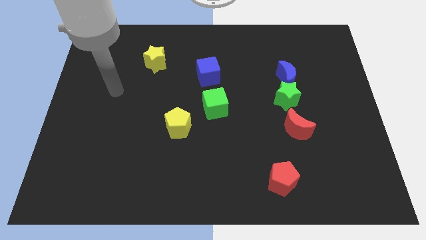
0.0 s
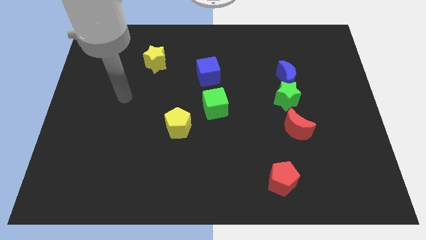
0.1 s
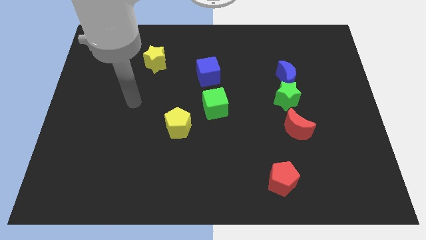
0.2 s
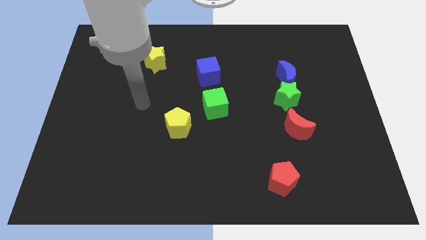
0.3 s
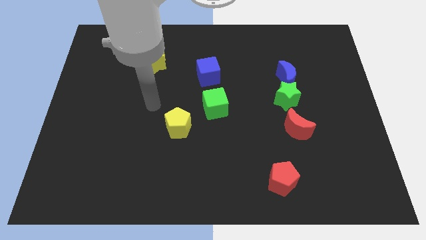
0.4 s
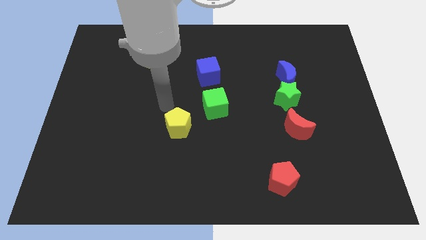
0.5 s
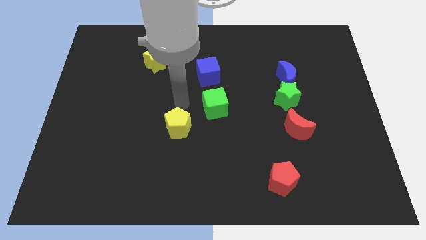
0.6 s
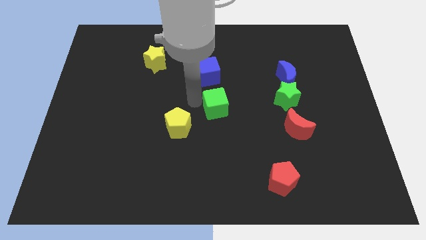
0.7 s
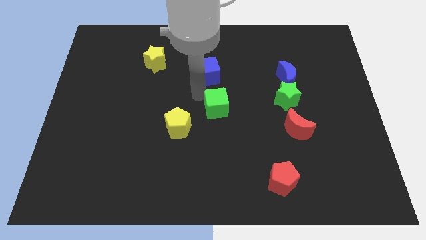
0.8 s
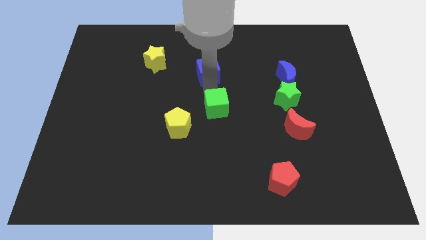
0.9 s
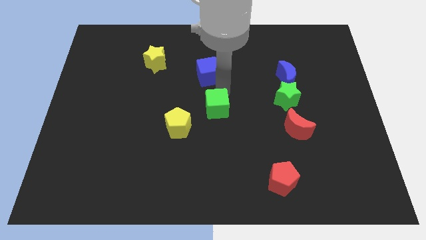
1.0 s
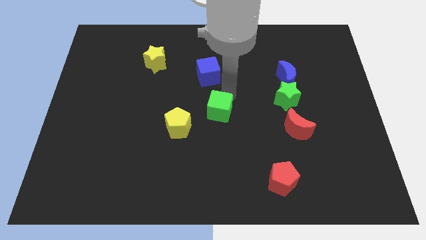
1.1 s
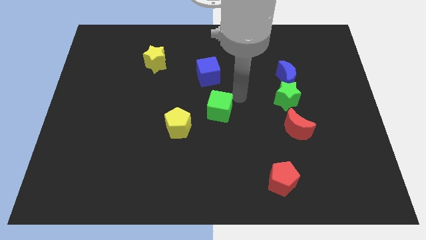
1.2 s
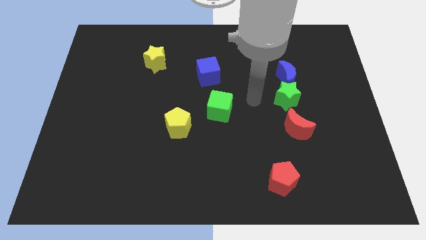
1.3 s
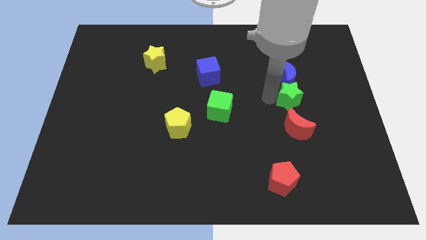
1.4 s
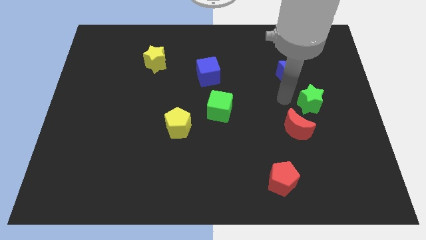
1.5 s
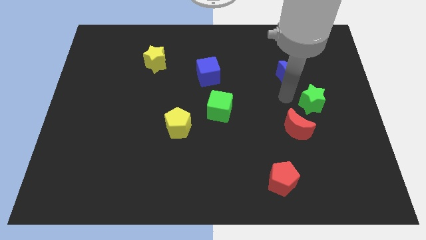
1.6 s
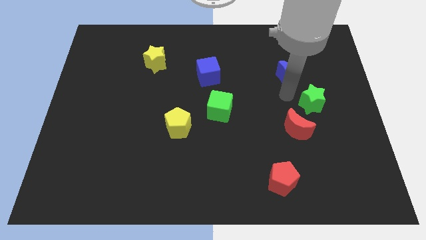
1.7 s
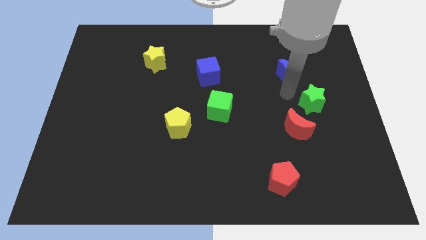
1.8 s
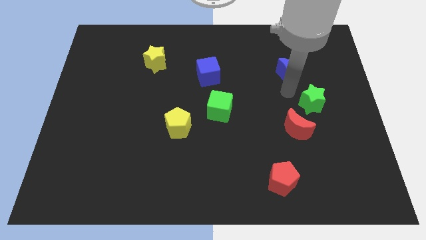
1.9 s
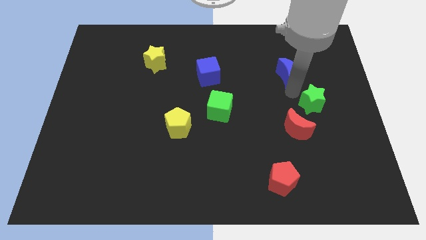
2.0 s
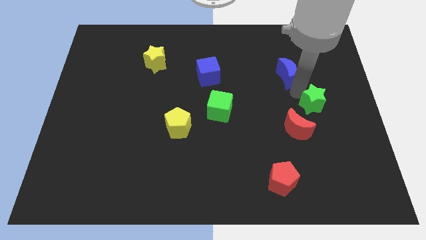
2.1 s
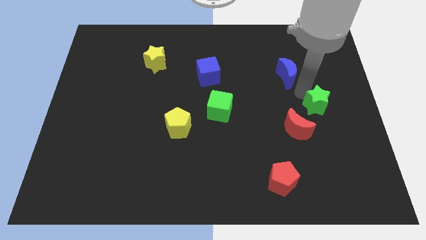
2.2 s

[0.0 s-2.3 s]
pull the blue moon apart from the green star

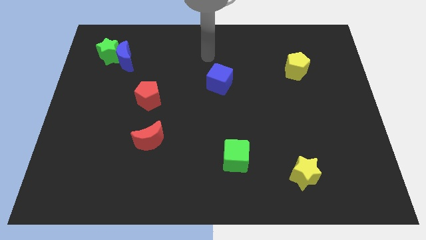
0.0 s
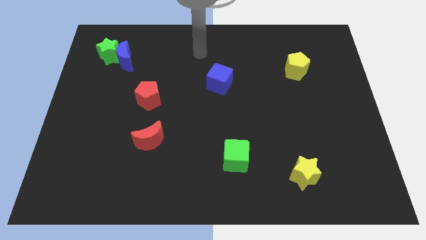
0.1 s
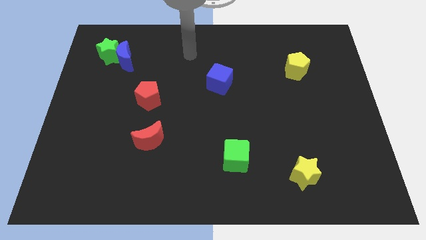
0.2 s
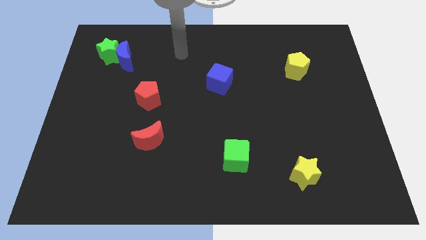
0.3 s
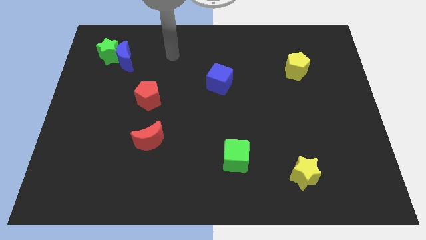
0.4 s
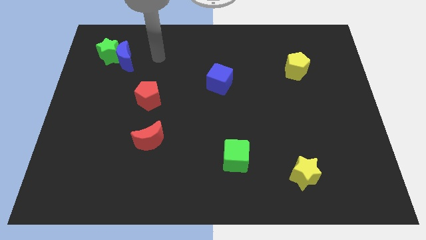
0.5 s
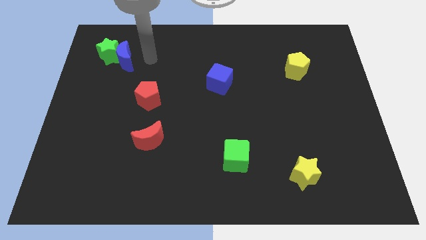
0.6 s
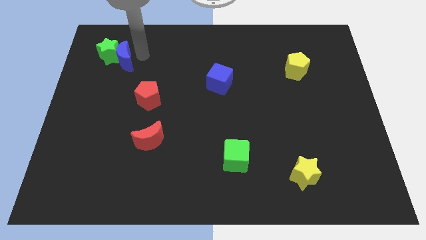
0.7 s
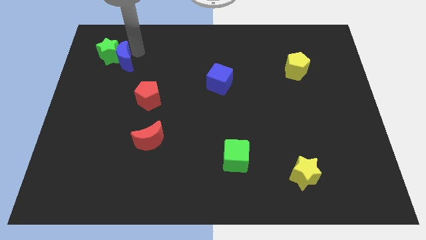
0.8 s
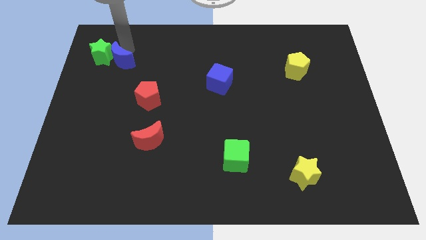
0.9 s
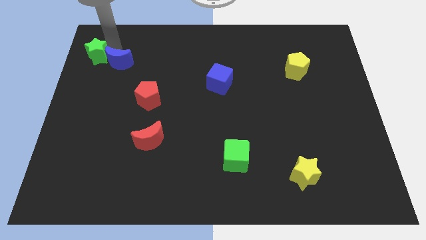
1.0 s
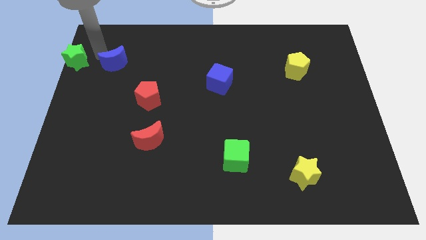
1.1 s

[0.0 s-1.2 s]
separate the blue moon from the green star

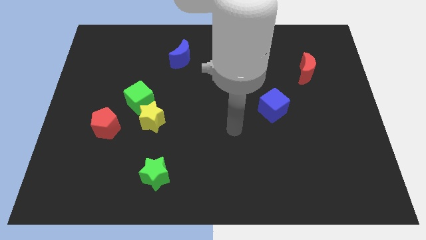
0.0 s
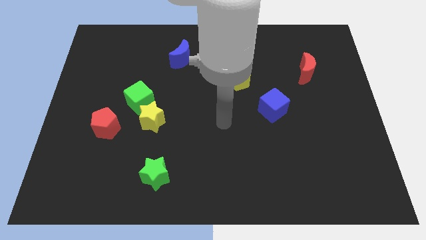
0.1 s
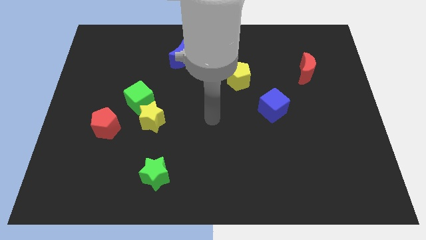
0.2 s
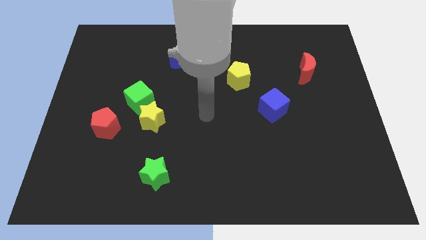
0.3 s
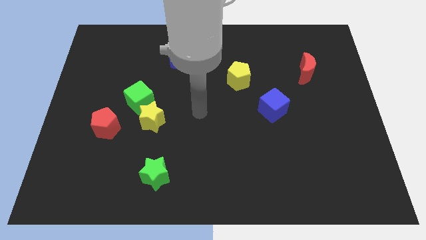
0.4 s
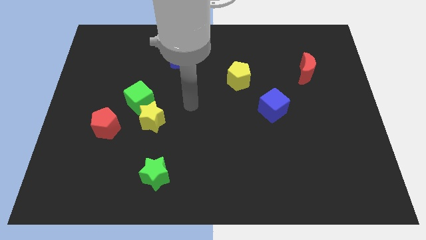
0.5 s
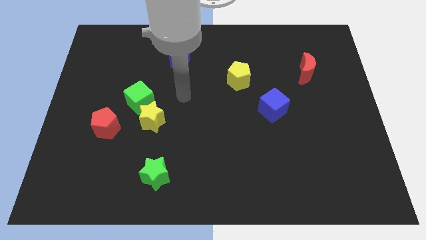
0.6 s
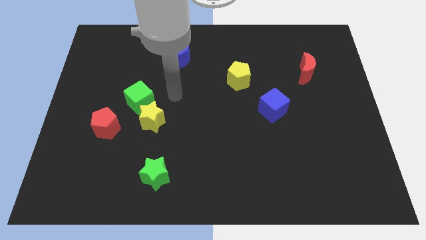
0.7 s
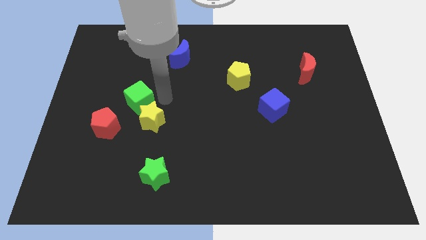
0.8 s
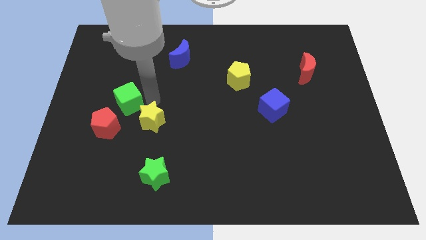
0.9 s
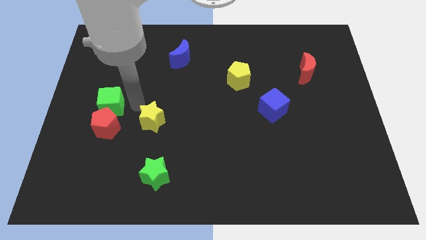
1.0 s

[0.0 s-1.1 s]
separate the yellow star from the green cube

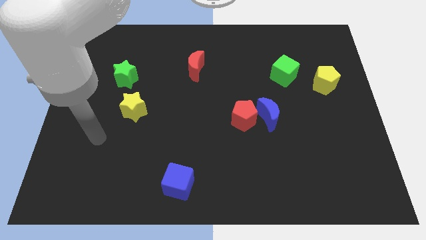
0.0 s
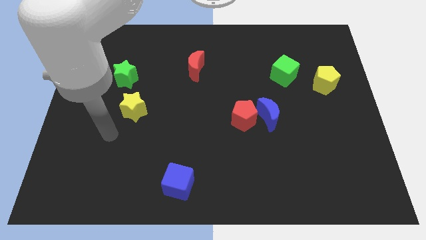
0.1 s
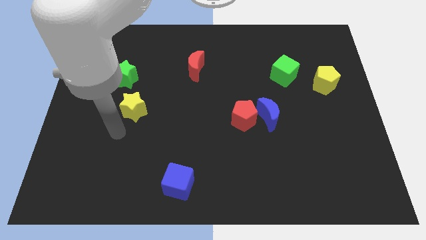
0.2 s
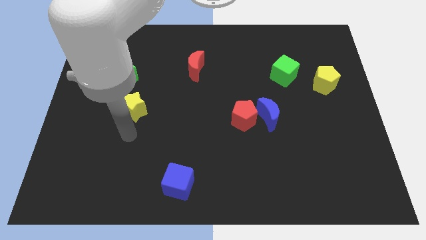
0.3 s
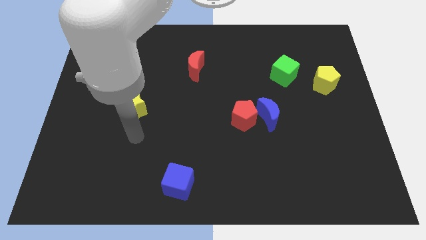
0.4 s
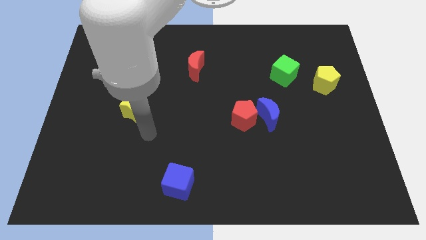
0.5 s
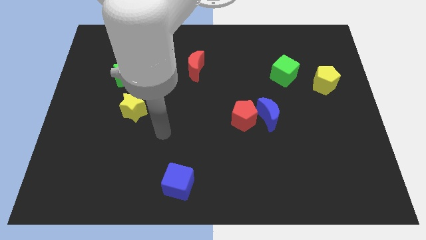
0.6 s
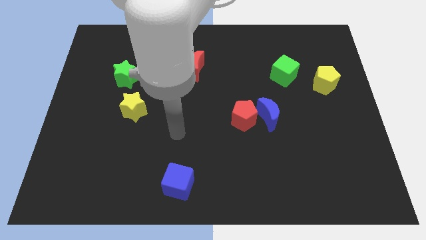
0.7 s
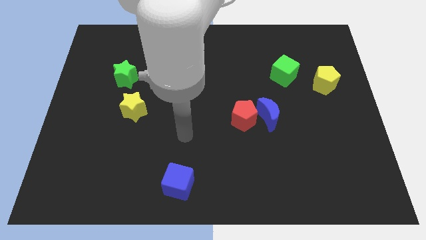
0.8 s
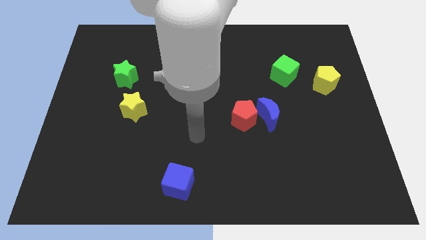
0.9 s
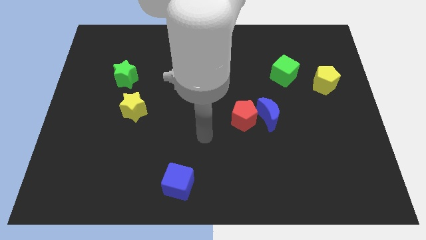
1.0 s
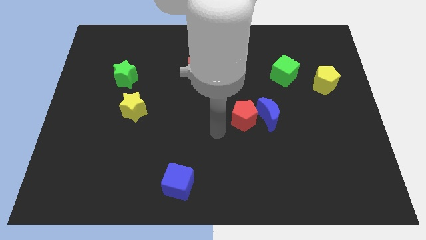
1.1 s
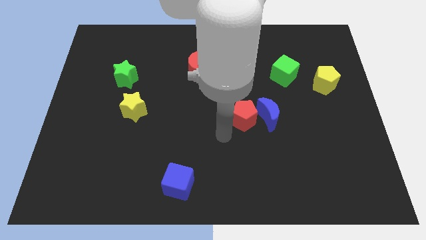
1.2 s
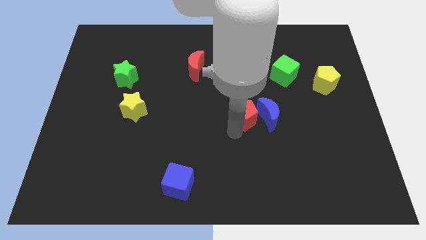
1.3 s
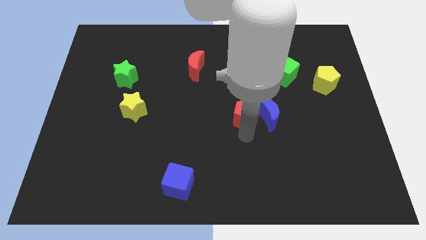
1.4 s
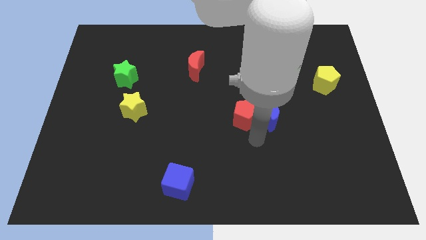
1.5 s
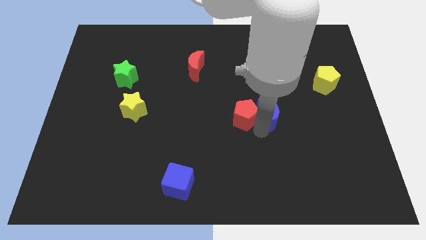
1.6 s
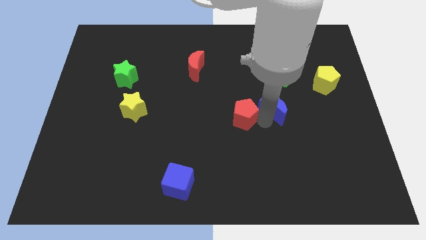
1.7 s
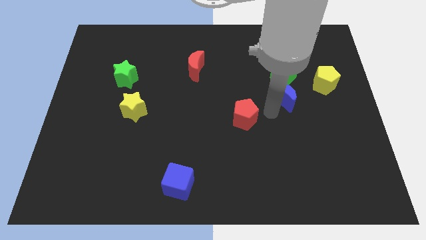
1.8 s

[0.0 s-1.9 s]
pull the red pentagon apart from the blue moon

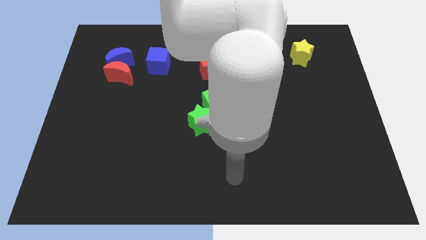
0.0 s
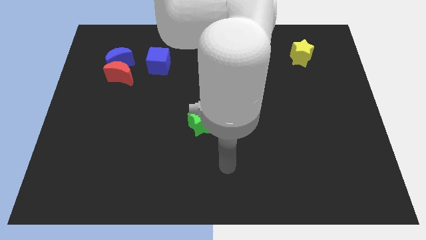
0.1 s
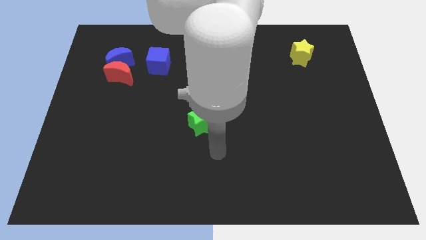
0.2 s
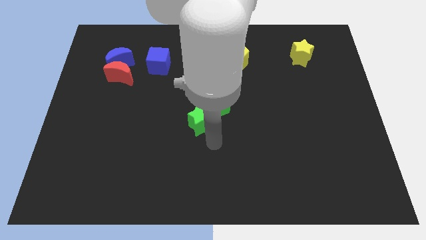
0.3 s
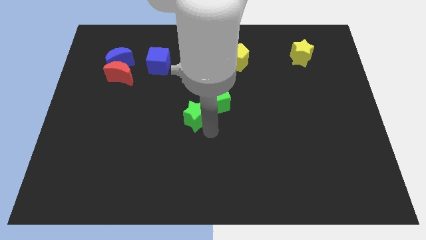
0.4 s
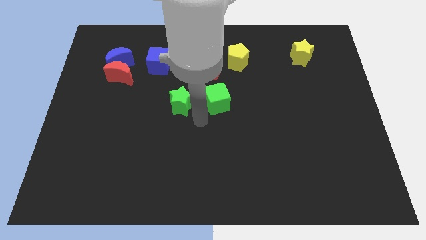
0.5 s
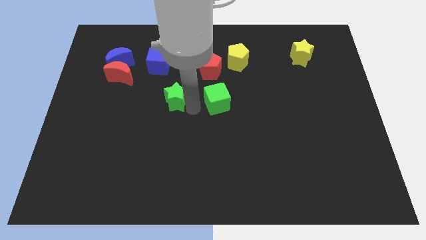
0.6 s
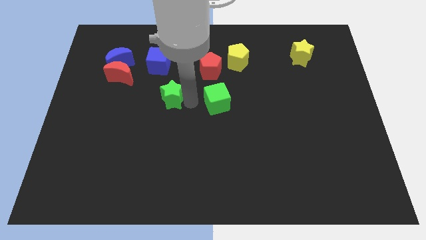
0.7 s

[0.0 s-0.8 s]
move the green cube away from the green star

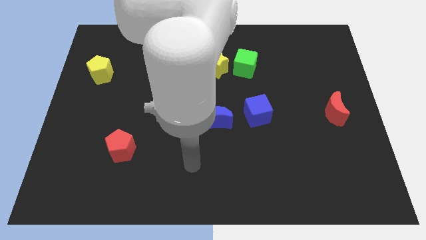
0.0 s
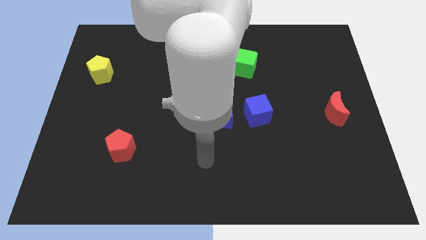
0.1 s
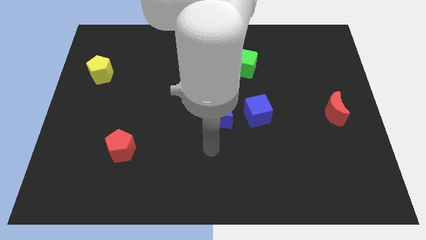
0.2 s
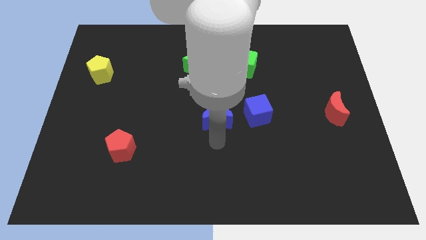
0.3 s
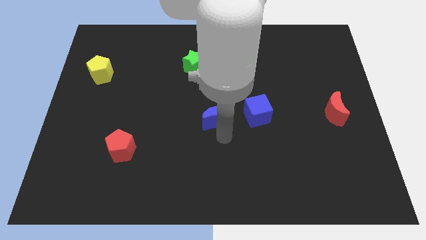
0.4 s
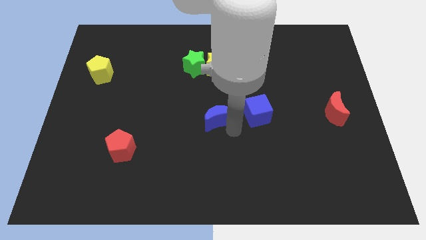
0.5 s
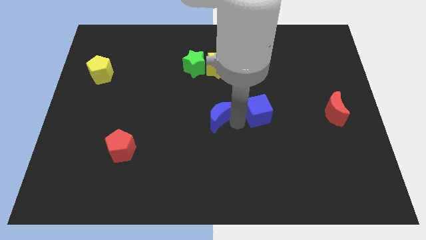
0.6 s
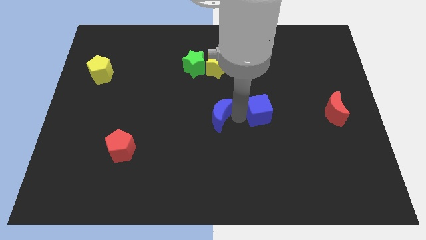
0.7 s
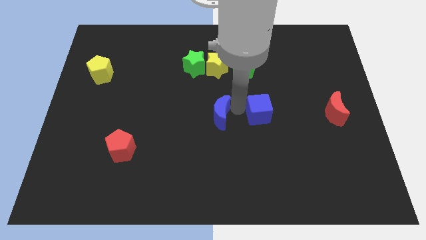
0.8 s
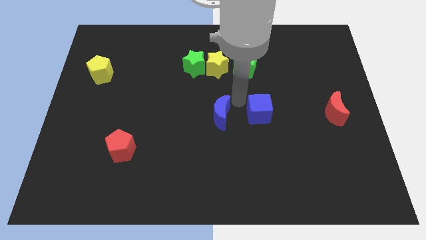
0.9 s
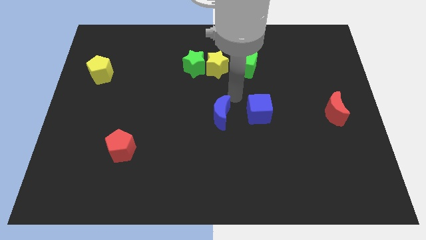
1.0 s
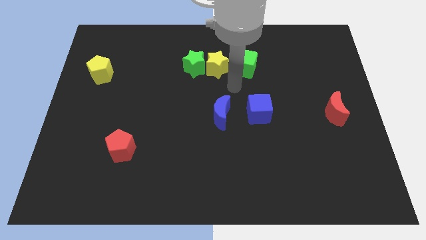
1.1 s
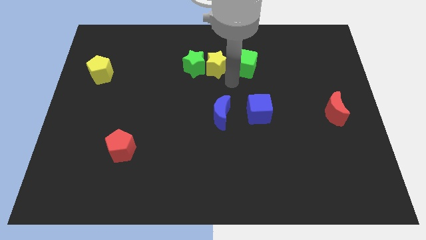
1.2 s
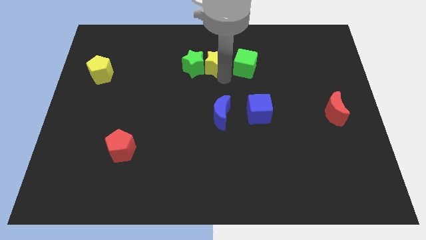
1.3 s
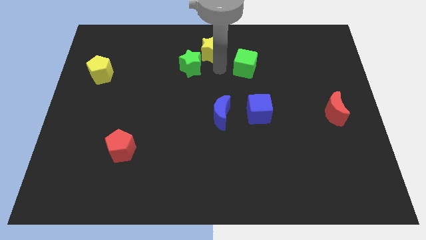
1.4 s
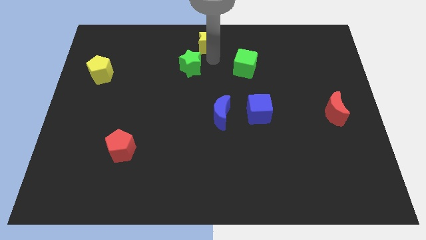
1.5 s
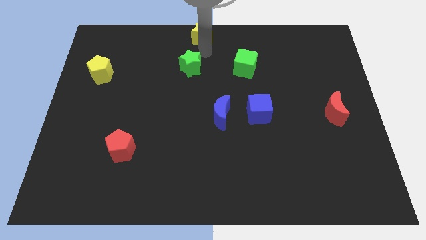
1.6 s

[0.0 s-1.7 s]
pull the green star apart from the yellow star

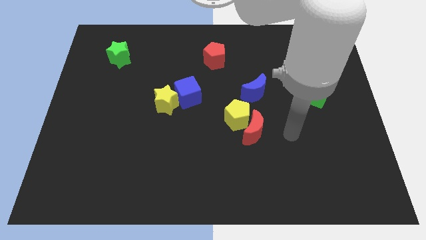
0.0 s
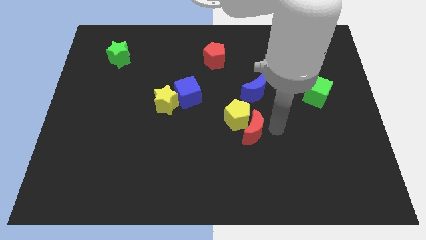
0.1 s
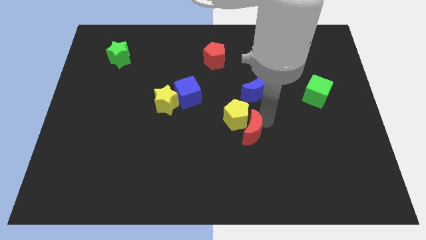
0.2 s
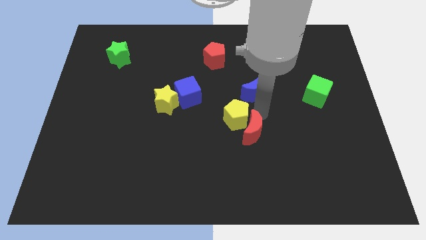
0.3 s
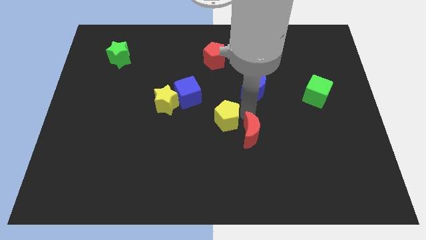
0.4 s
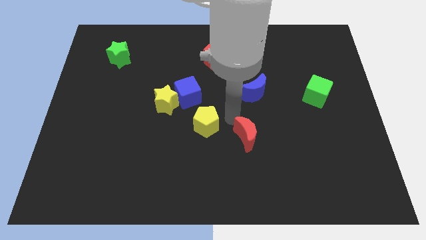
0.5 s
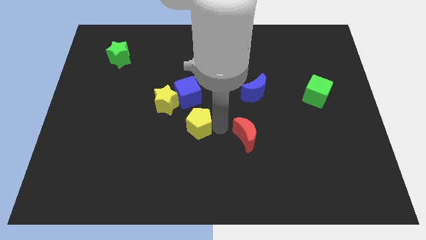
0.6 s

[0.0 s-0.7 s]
pull the red moon apart from the yellow pentagon
